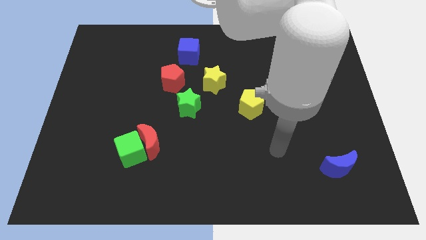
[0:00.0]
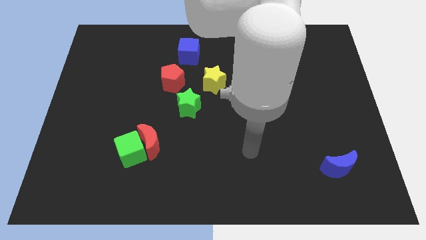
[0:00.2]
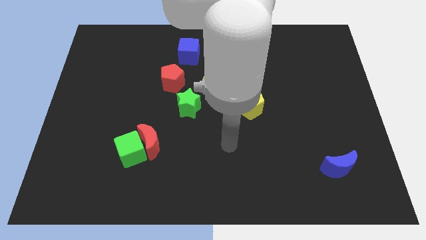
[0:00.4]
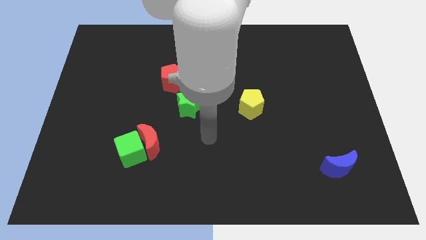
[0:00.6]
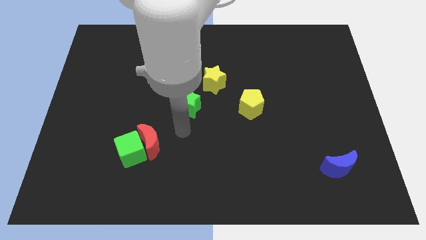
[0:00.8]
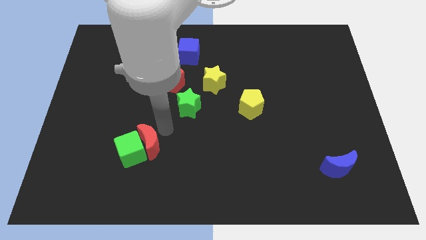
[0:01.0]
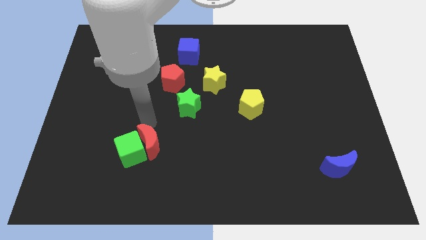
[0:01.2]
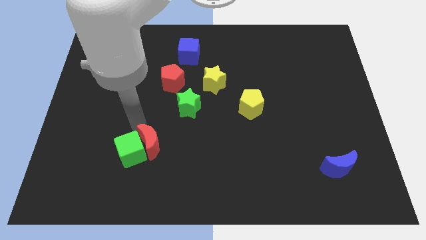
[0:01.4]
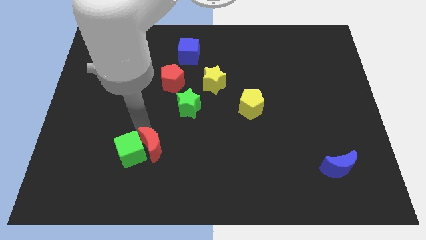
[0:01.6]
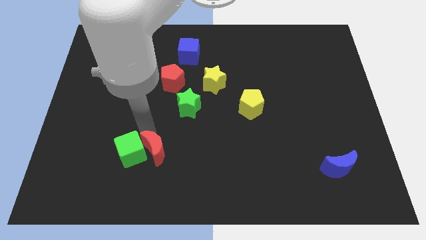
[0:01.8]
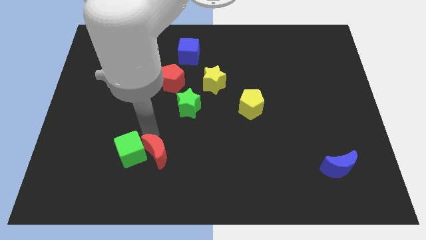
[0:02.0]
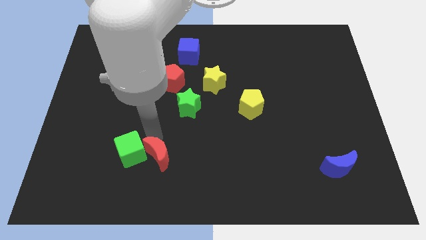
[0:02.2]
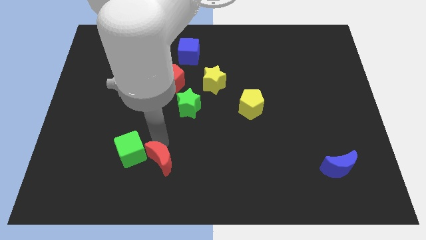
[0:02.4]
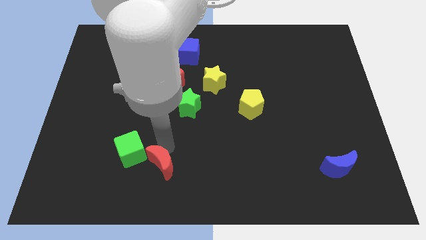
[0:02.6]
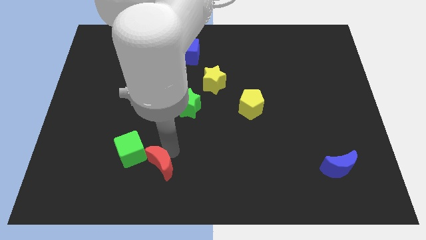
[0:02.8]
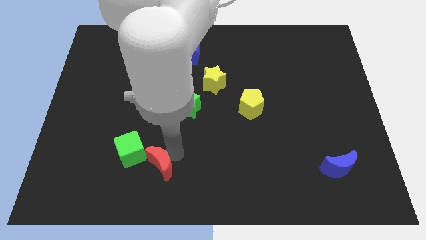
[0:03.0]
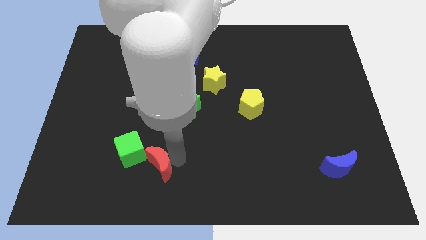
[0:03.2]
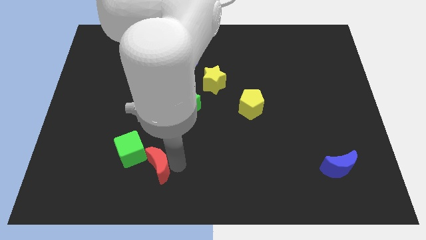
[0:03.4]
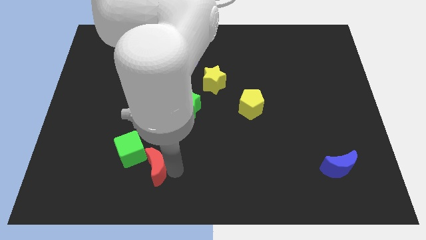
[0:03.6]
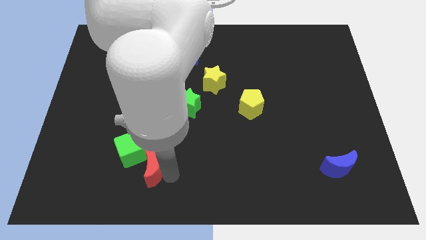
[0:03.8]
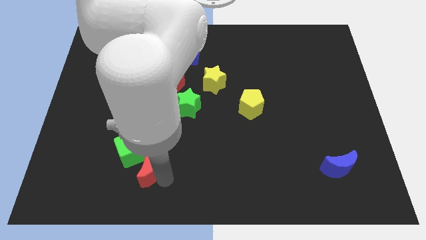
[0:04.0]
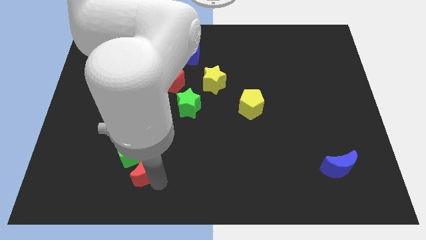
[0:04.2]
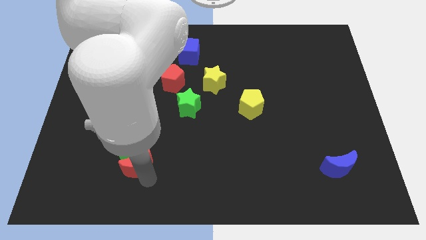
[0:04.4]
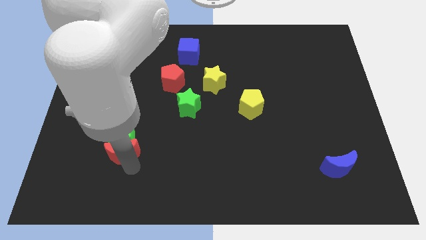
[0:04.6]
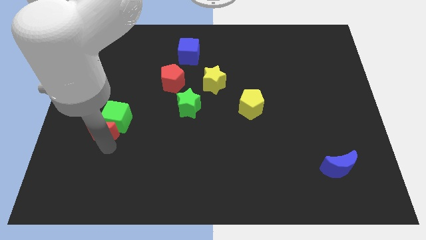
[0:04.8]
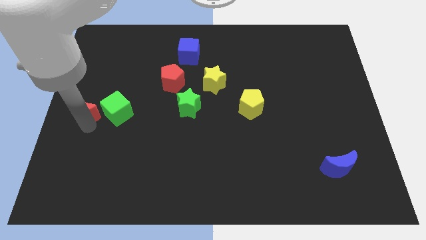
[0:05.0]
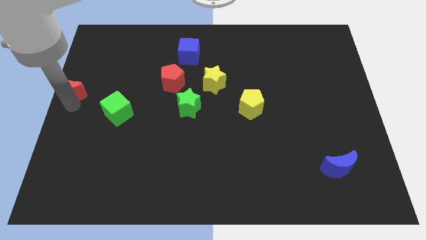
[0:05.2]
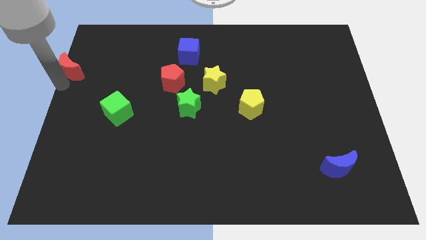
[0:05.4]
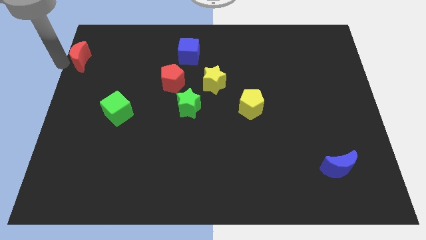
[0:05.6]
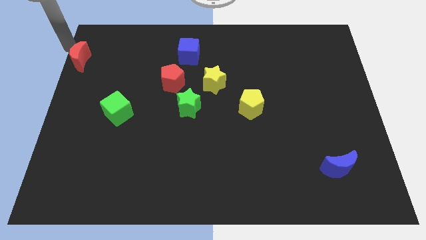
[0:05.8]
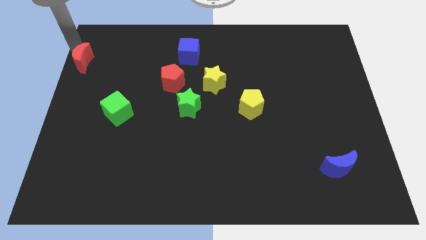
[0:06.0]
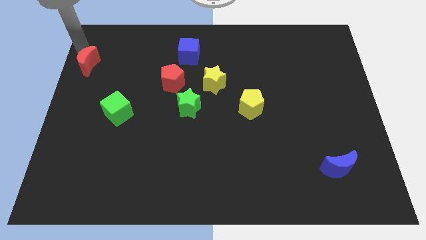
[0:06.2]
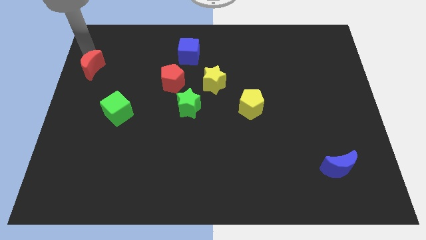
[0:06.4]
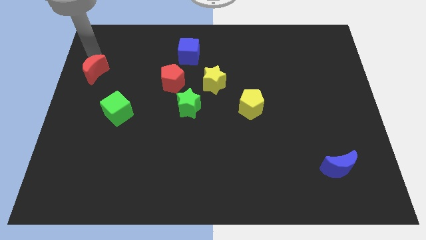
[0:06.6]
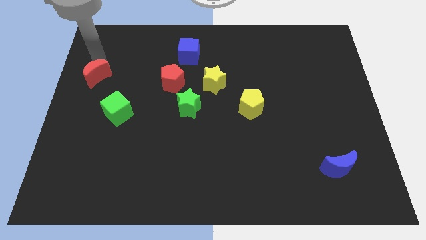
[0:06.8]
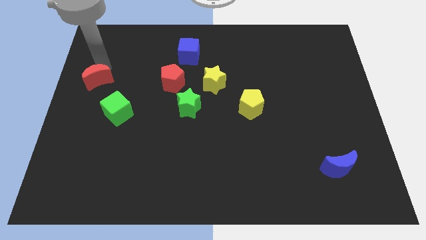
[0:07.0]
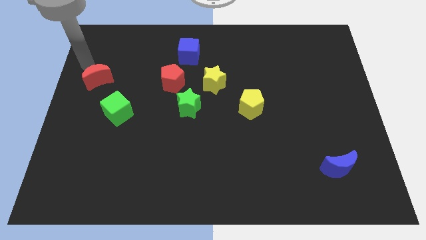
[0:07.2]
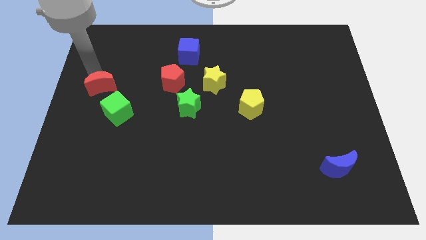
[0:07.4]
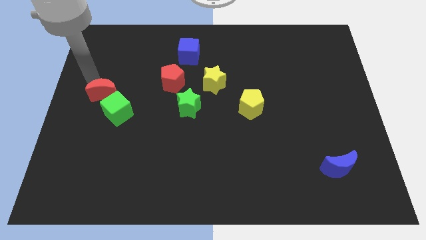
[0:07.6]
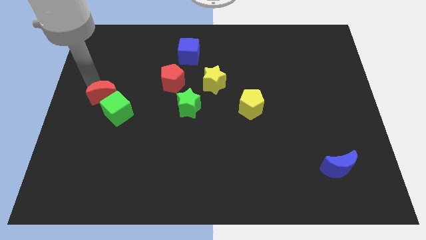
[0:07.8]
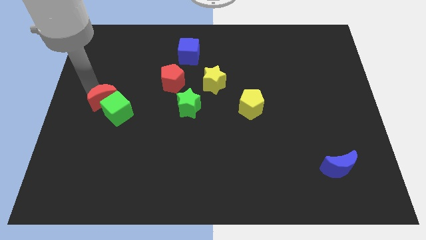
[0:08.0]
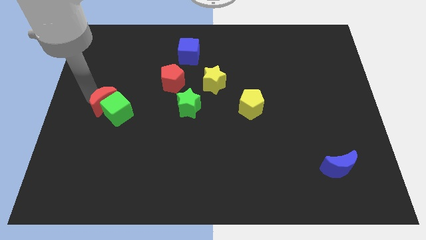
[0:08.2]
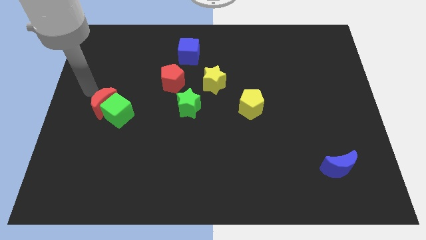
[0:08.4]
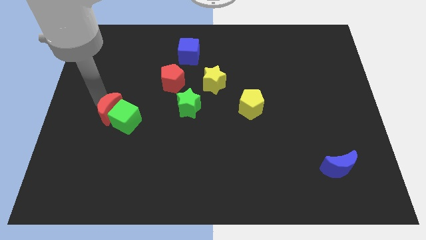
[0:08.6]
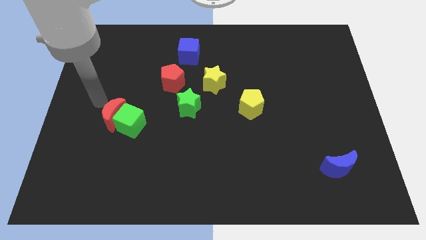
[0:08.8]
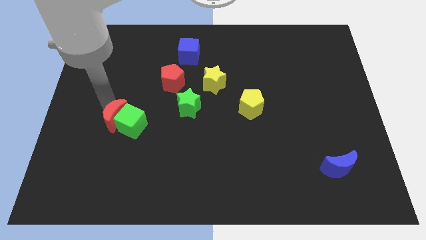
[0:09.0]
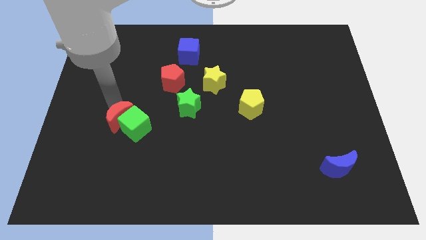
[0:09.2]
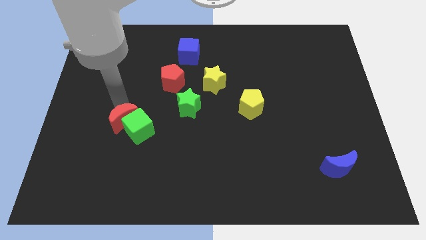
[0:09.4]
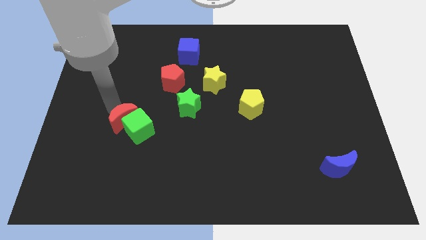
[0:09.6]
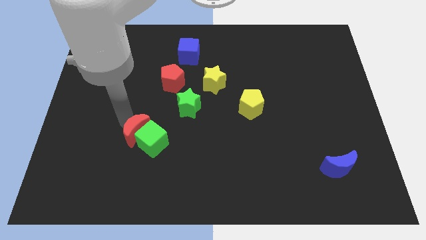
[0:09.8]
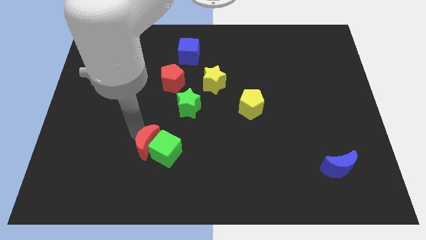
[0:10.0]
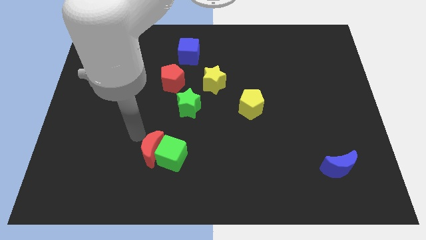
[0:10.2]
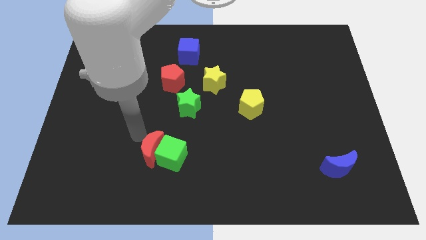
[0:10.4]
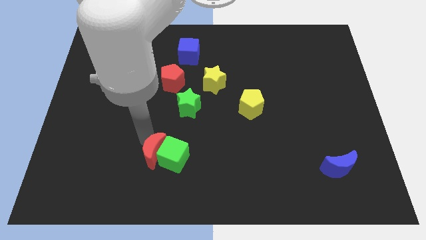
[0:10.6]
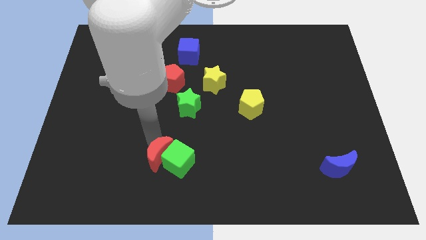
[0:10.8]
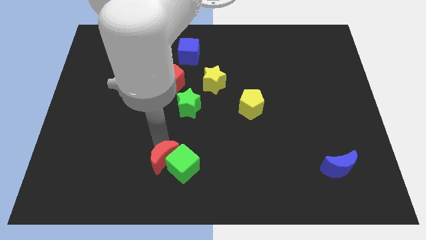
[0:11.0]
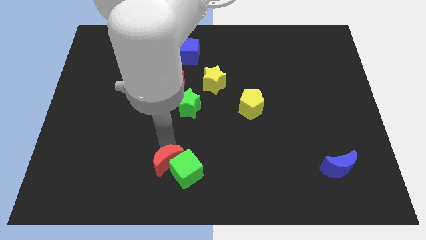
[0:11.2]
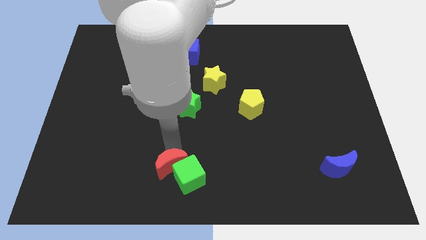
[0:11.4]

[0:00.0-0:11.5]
slide the red moon to the bottom

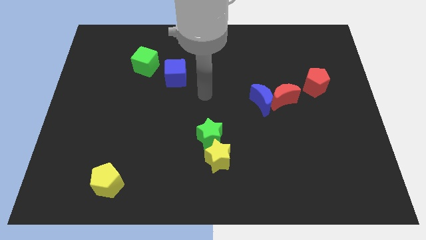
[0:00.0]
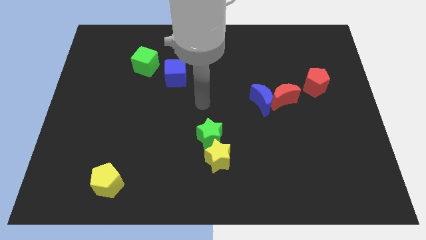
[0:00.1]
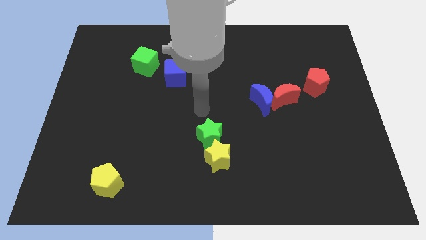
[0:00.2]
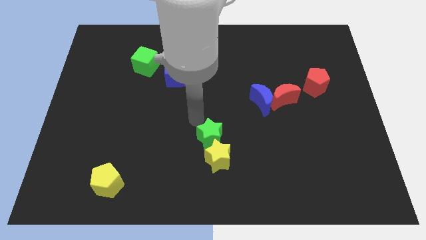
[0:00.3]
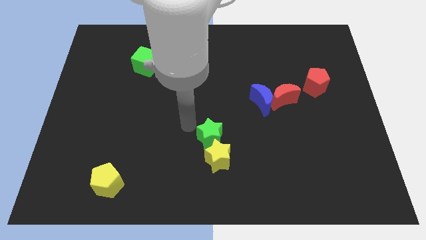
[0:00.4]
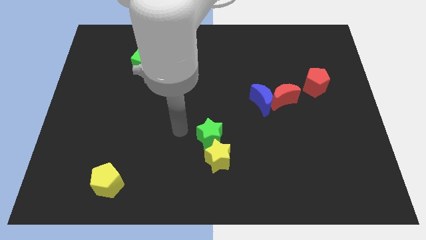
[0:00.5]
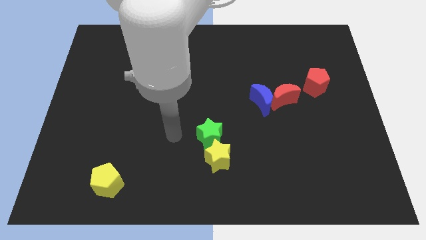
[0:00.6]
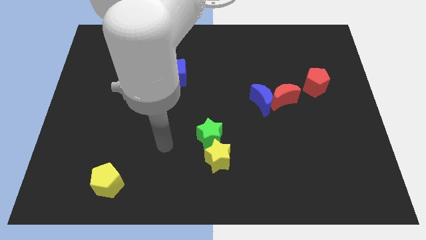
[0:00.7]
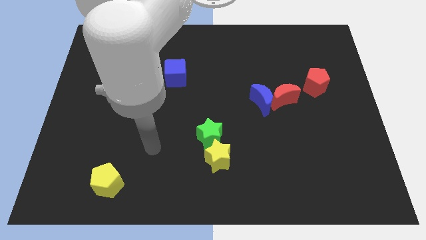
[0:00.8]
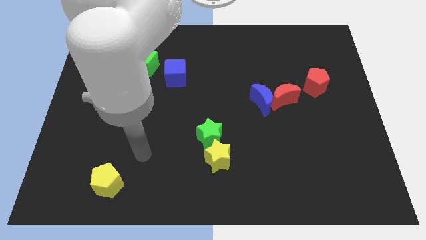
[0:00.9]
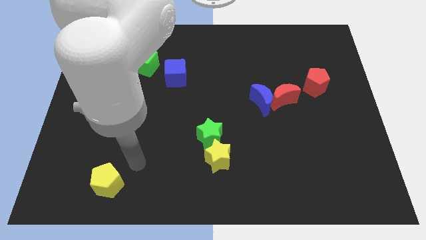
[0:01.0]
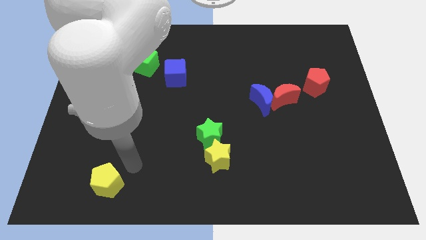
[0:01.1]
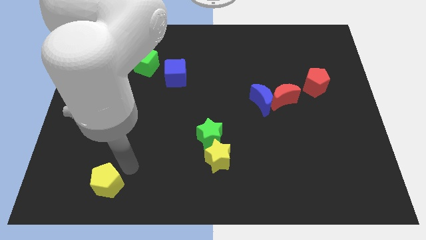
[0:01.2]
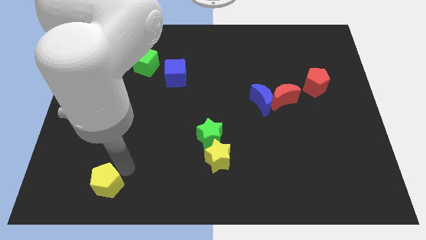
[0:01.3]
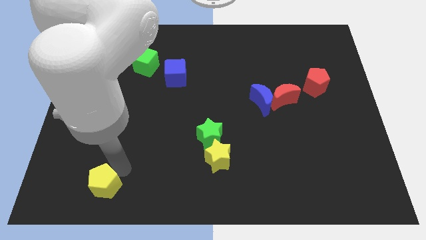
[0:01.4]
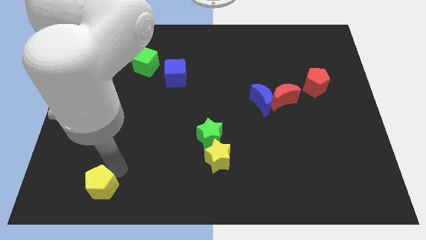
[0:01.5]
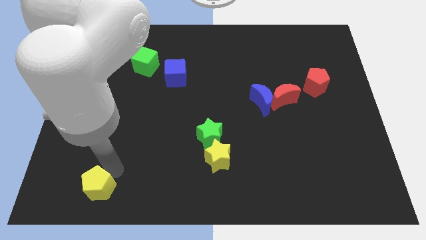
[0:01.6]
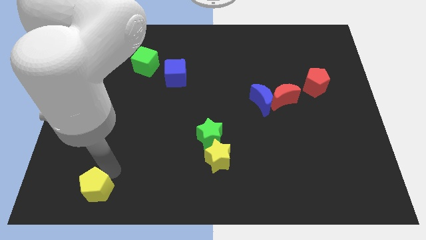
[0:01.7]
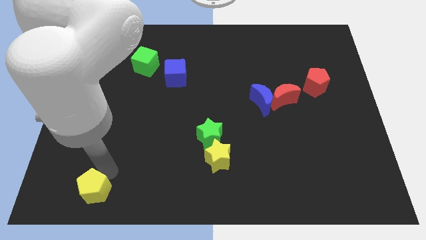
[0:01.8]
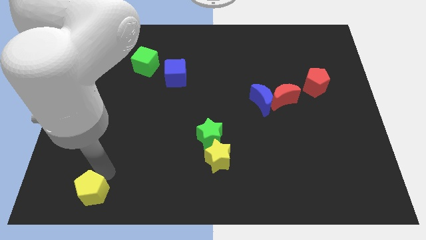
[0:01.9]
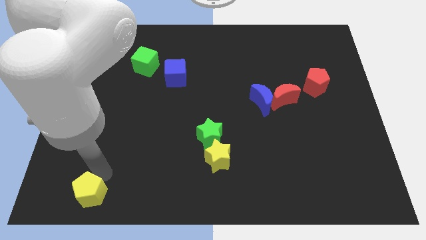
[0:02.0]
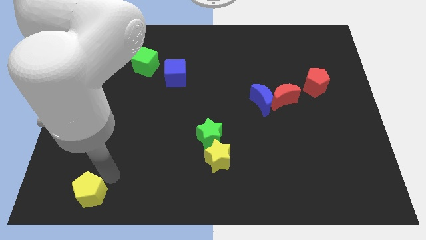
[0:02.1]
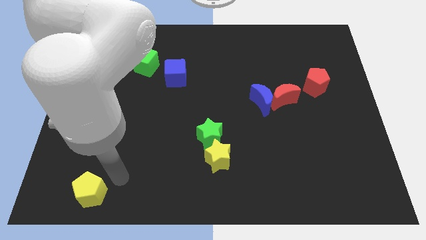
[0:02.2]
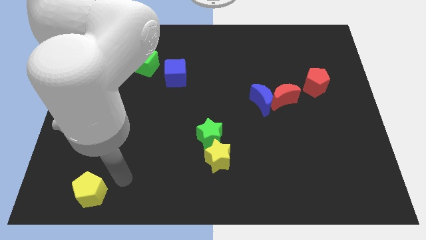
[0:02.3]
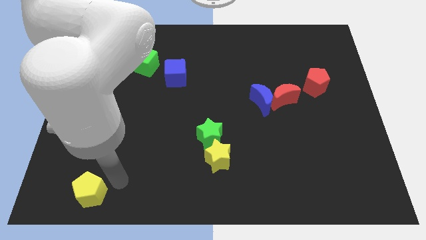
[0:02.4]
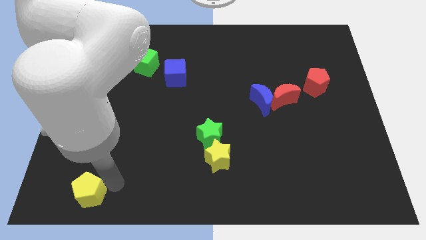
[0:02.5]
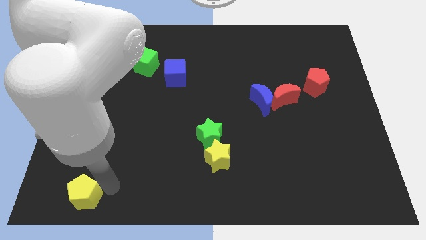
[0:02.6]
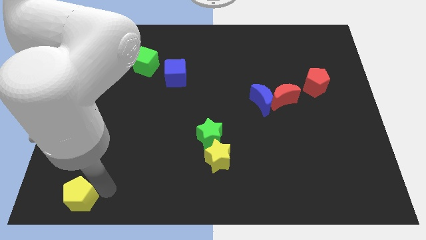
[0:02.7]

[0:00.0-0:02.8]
put the yellow pentagon to the bottom left corner
